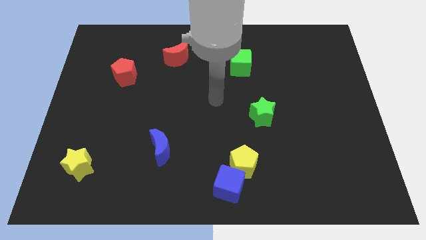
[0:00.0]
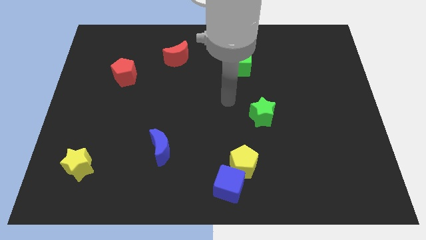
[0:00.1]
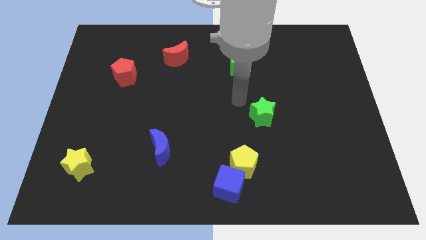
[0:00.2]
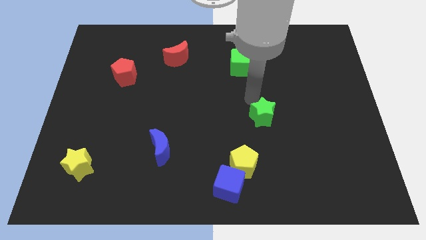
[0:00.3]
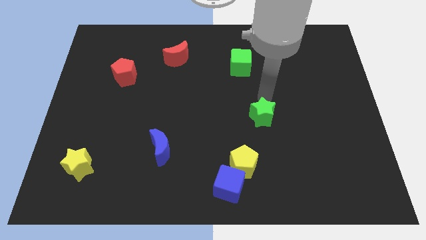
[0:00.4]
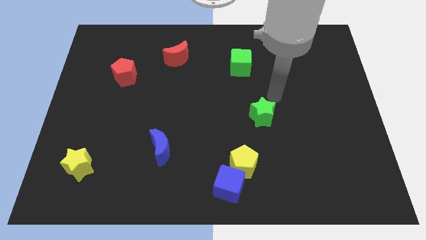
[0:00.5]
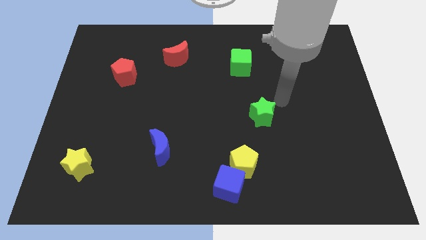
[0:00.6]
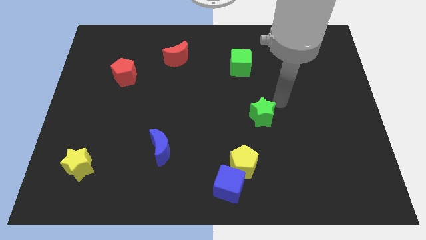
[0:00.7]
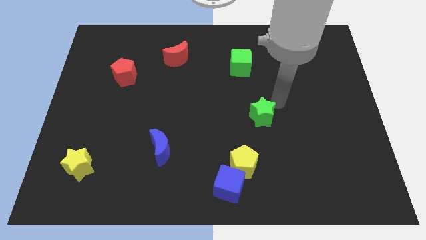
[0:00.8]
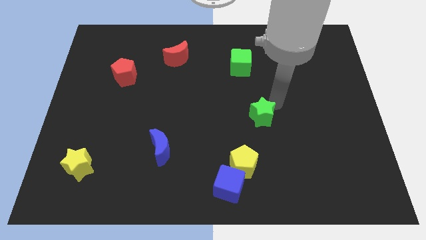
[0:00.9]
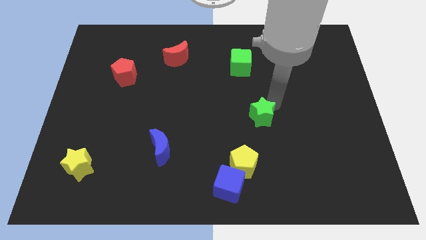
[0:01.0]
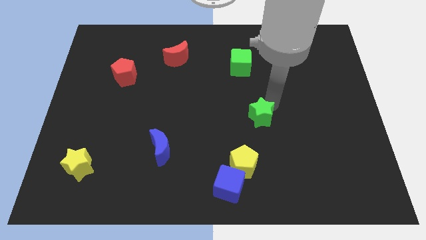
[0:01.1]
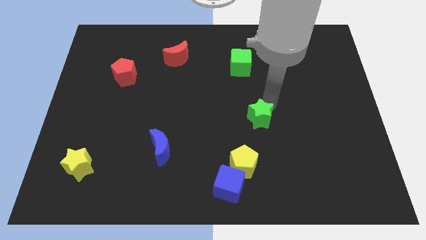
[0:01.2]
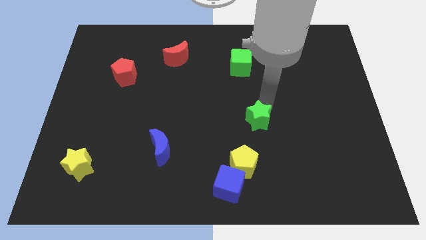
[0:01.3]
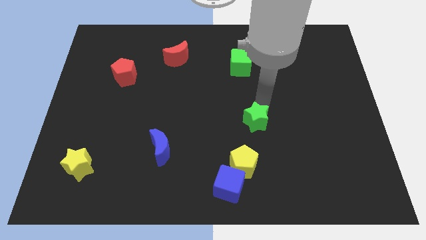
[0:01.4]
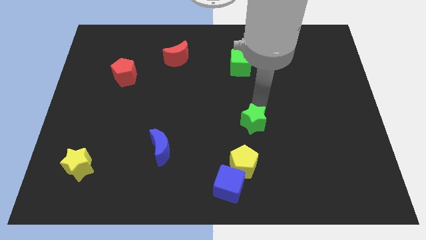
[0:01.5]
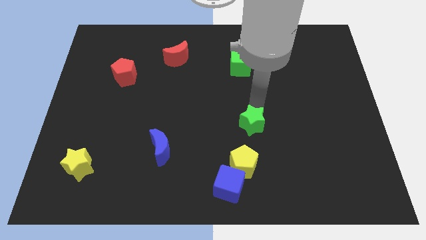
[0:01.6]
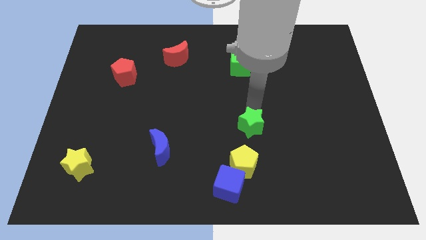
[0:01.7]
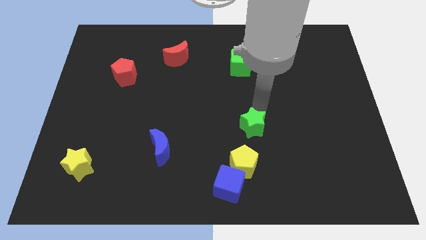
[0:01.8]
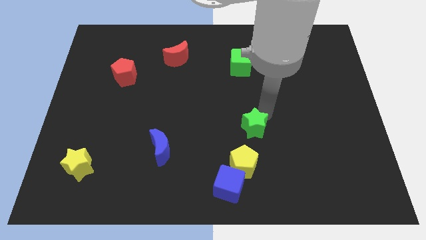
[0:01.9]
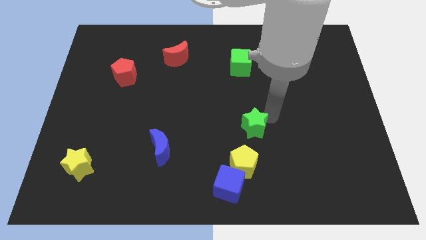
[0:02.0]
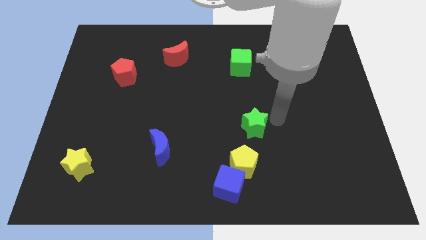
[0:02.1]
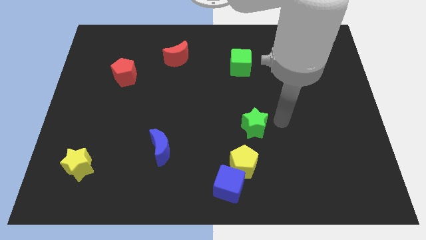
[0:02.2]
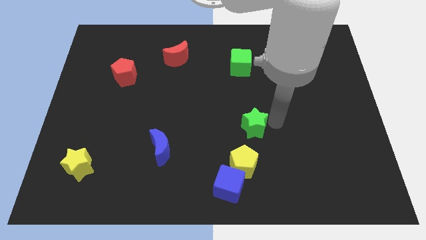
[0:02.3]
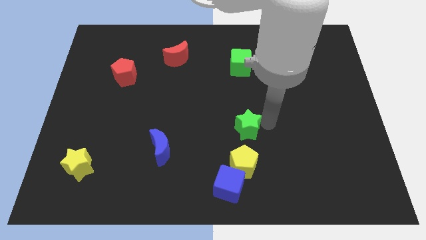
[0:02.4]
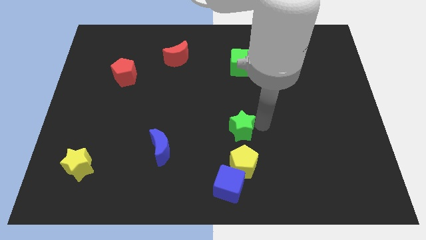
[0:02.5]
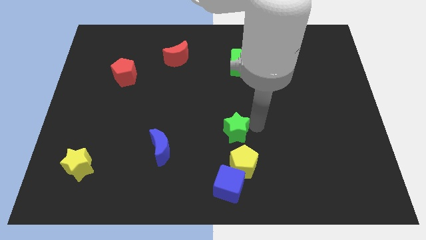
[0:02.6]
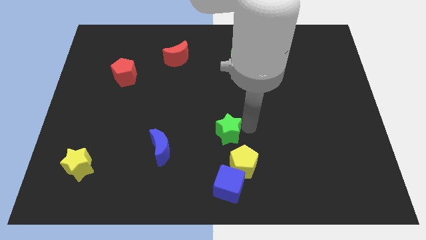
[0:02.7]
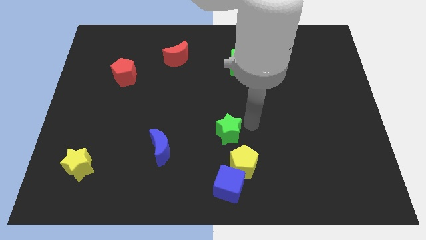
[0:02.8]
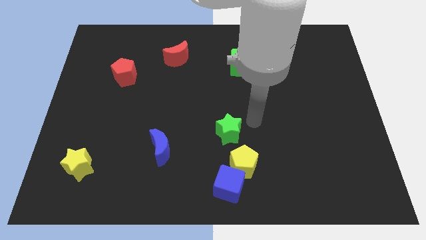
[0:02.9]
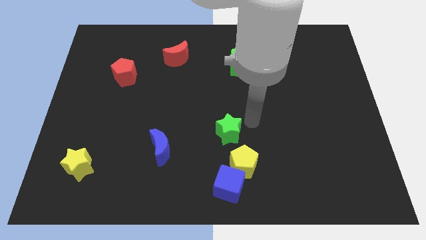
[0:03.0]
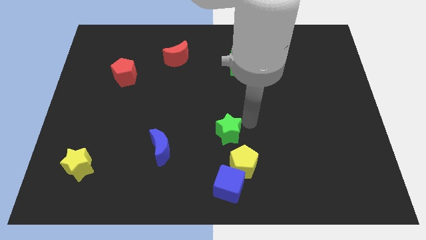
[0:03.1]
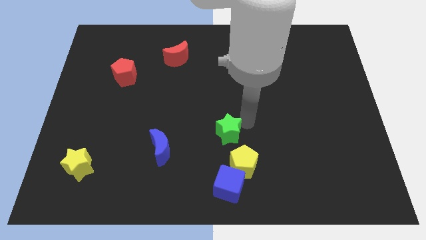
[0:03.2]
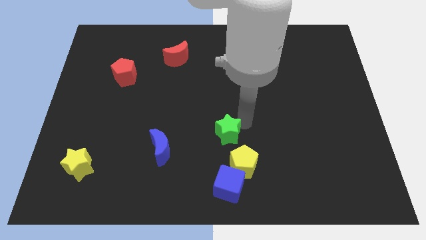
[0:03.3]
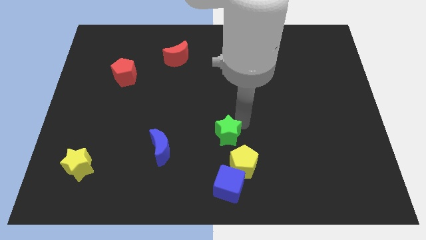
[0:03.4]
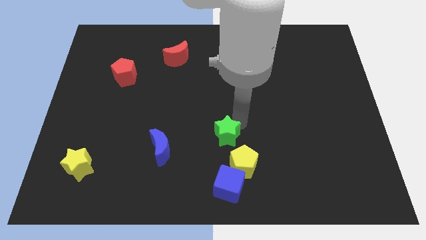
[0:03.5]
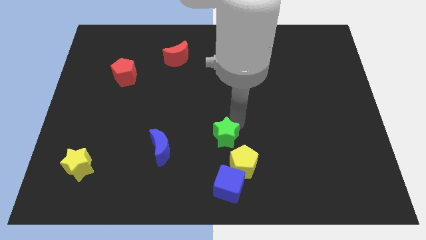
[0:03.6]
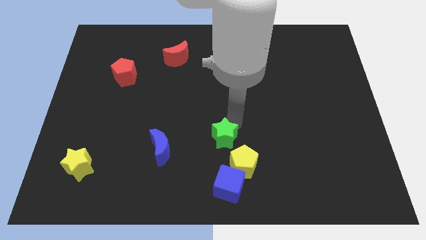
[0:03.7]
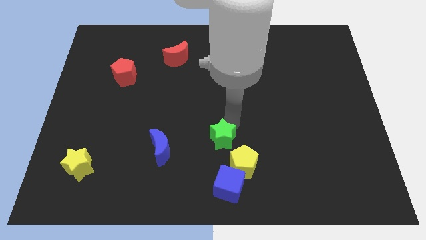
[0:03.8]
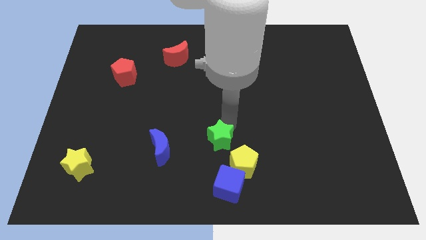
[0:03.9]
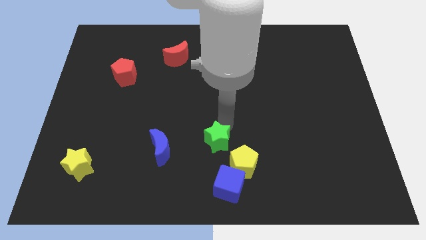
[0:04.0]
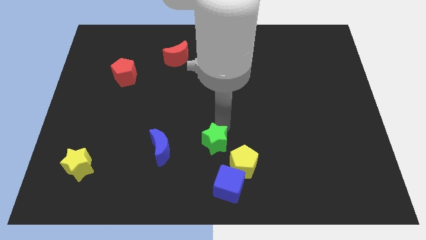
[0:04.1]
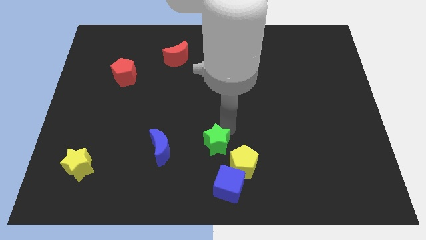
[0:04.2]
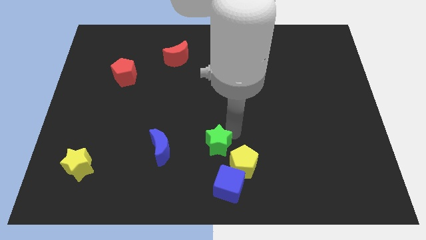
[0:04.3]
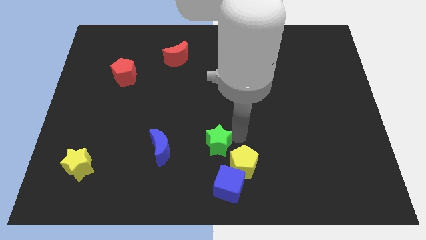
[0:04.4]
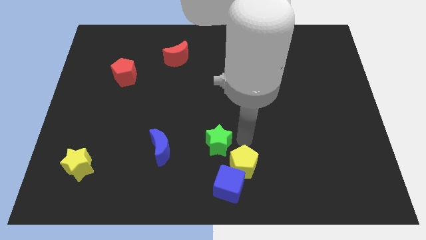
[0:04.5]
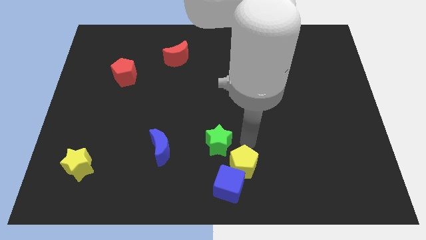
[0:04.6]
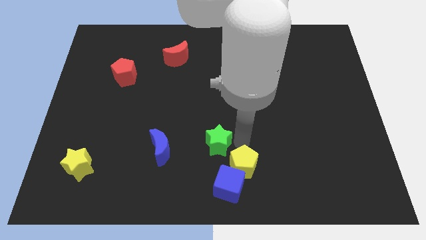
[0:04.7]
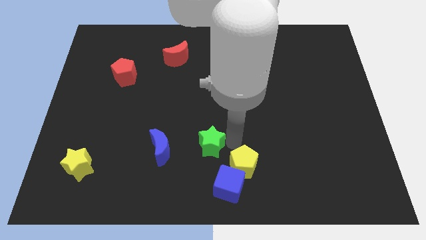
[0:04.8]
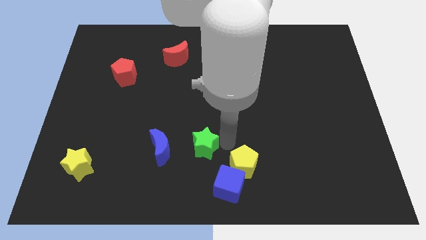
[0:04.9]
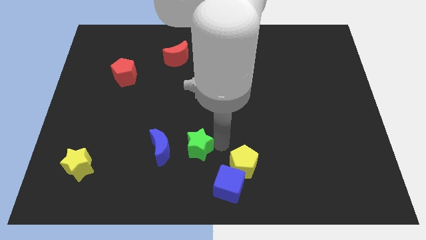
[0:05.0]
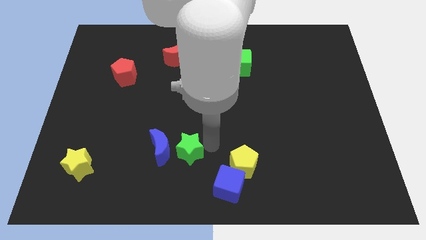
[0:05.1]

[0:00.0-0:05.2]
slide the green star to the blue moon

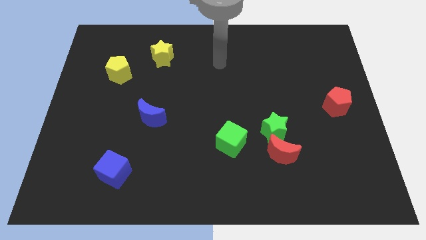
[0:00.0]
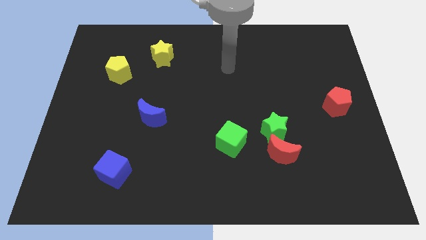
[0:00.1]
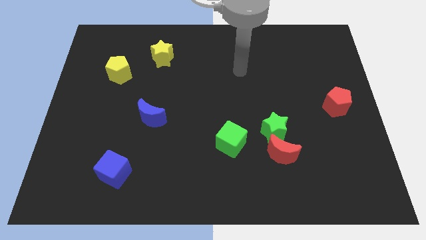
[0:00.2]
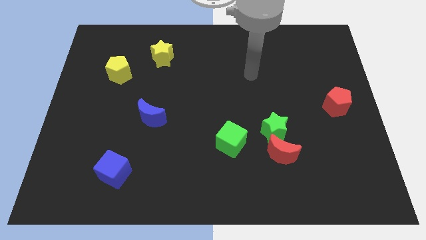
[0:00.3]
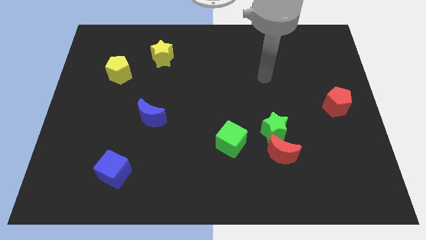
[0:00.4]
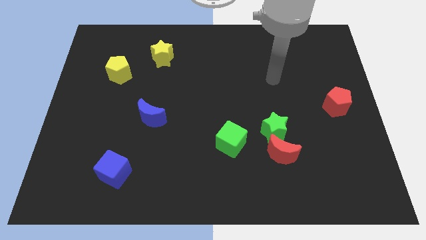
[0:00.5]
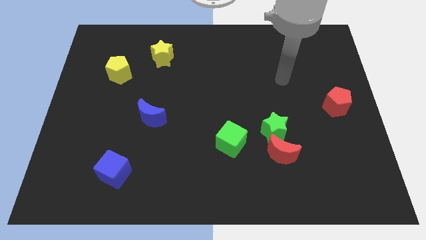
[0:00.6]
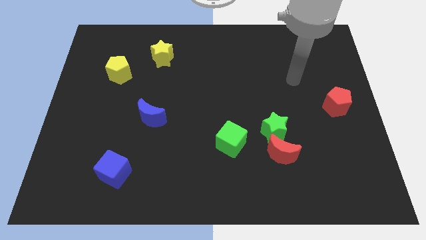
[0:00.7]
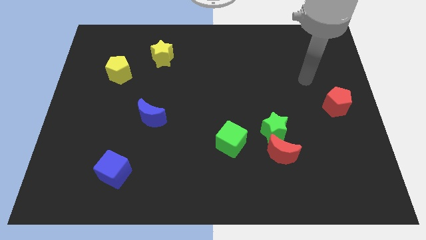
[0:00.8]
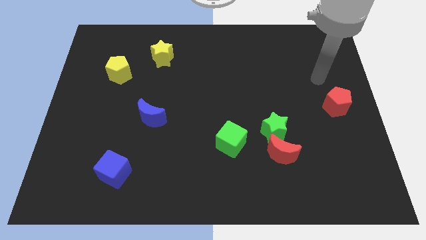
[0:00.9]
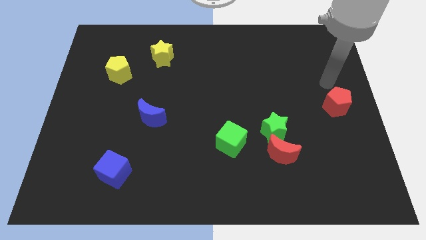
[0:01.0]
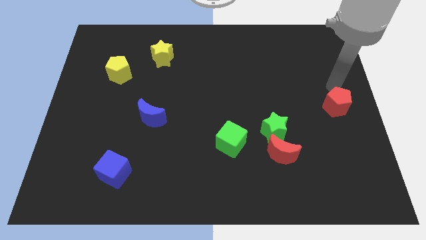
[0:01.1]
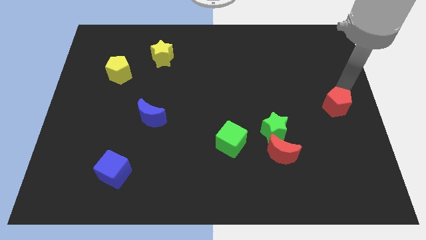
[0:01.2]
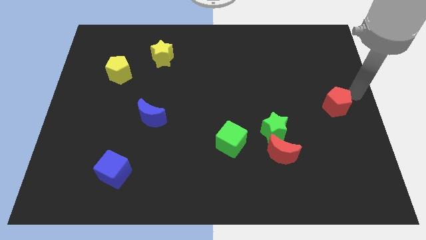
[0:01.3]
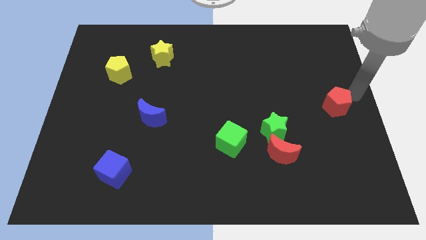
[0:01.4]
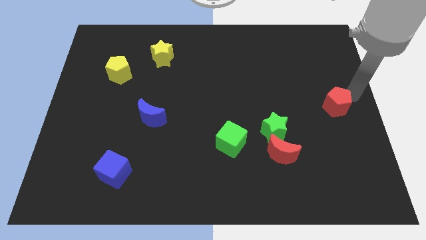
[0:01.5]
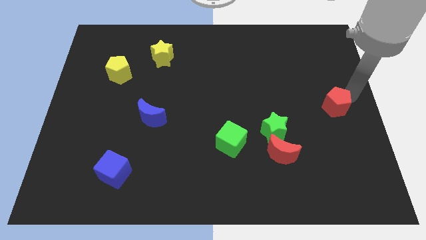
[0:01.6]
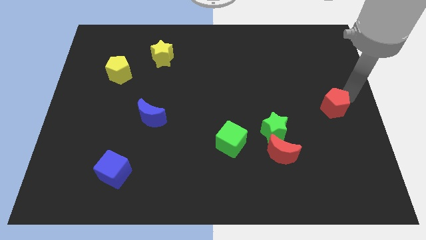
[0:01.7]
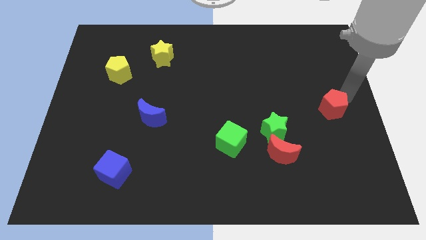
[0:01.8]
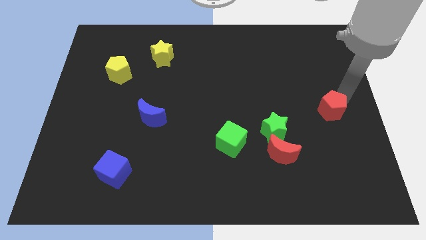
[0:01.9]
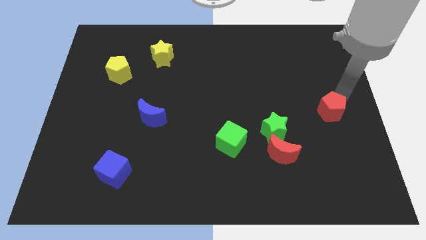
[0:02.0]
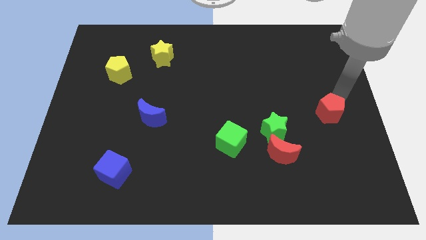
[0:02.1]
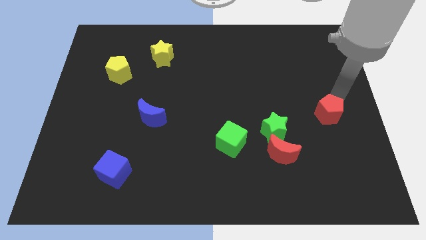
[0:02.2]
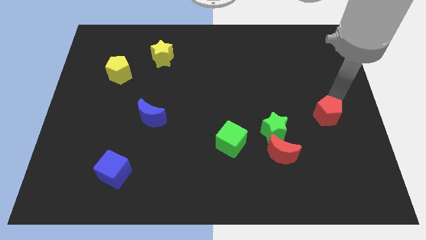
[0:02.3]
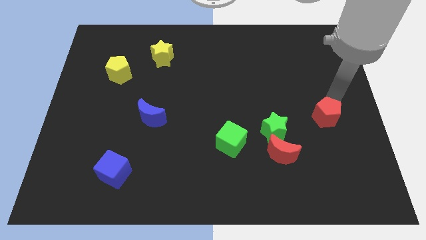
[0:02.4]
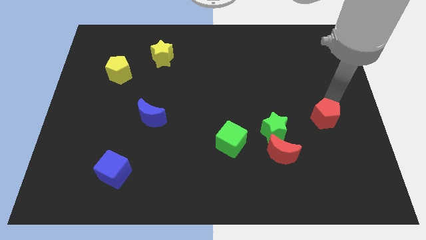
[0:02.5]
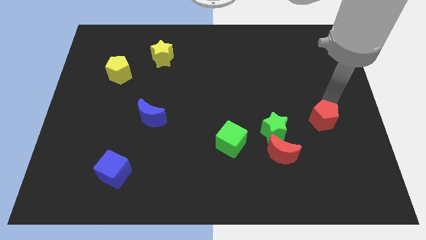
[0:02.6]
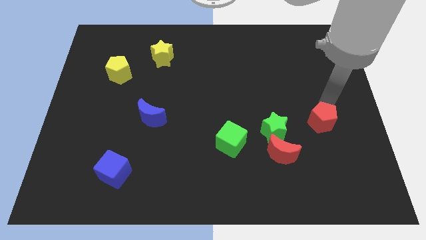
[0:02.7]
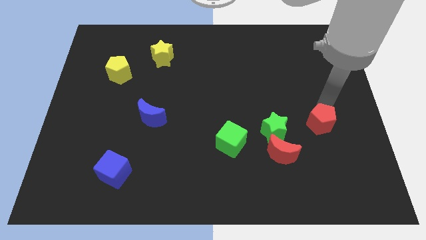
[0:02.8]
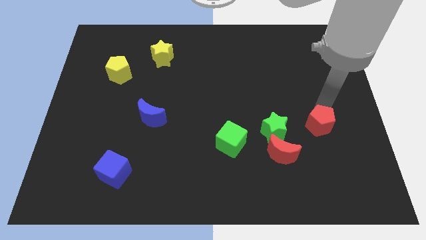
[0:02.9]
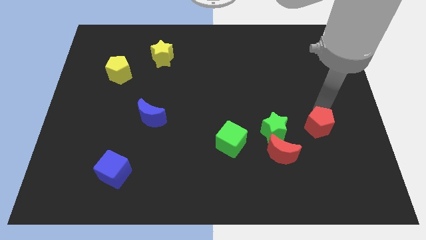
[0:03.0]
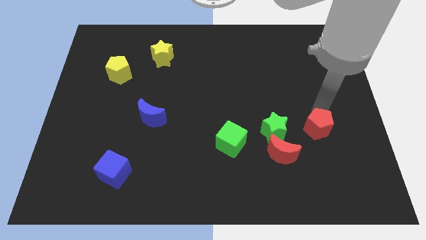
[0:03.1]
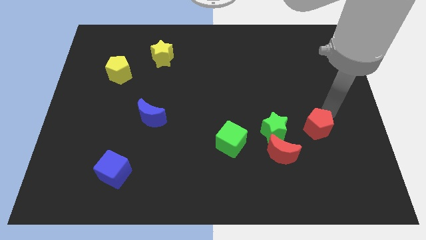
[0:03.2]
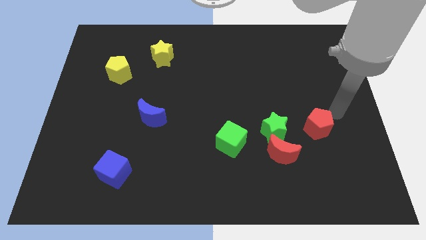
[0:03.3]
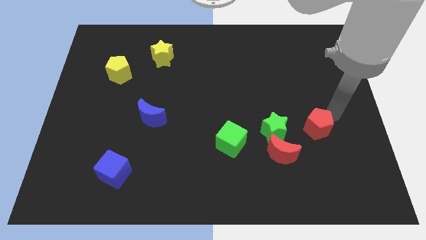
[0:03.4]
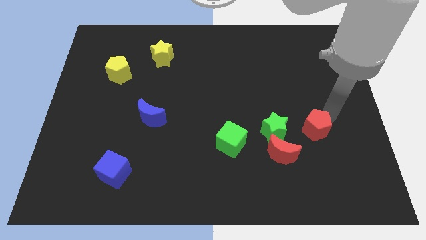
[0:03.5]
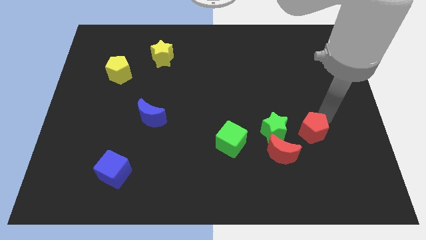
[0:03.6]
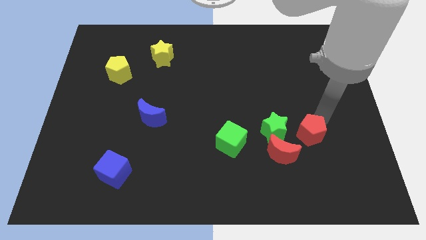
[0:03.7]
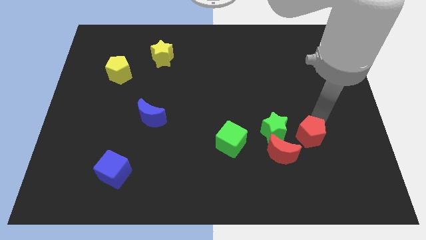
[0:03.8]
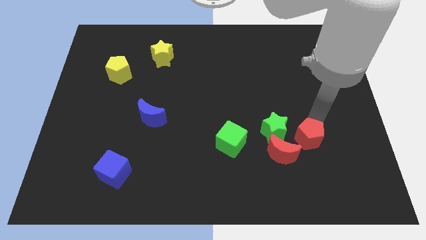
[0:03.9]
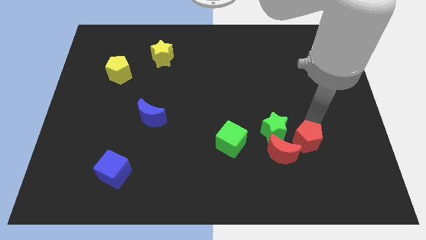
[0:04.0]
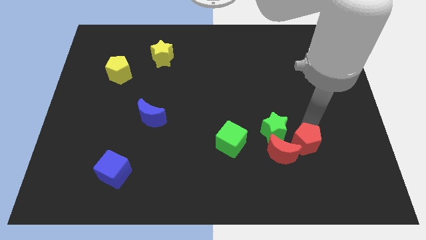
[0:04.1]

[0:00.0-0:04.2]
move the red pentagon next to the red moon
